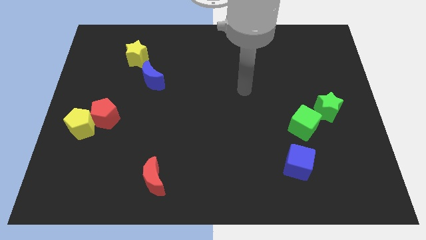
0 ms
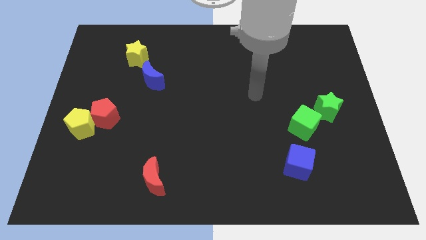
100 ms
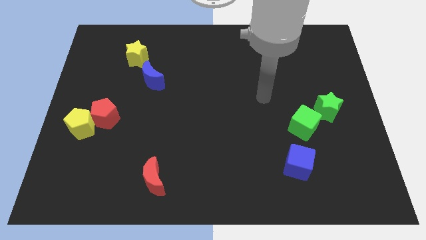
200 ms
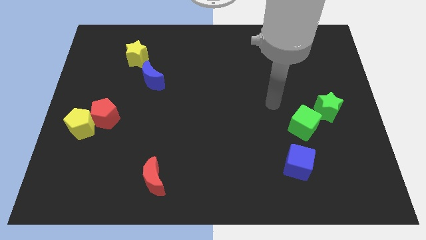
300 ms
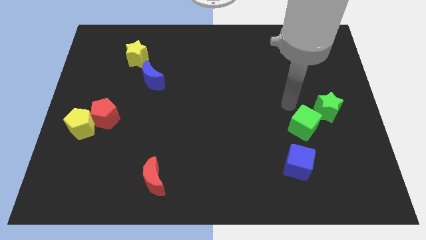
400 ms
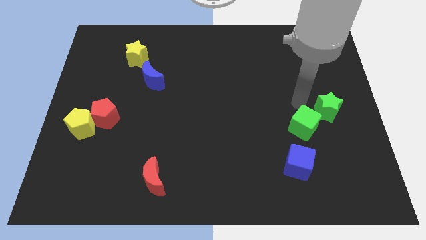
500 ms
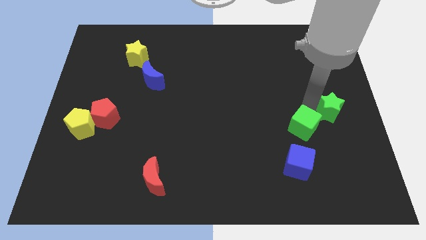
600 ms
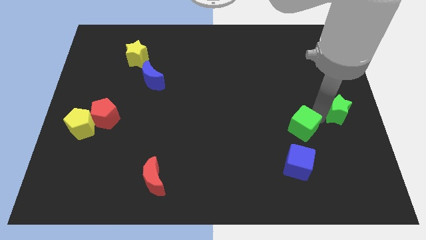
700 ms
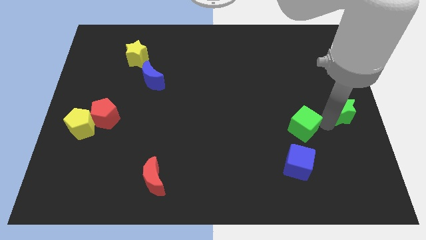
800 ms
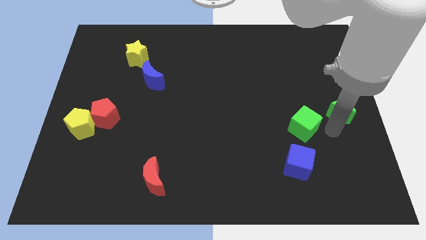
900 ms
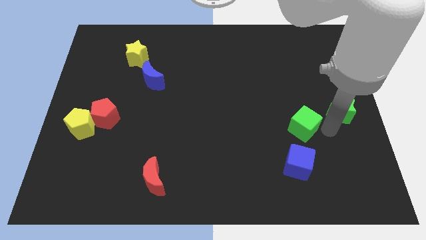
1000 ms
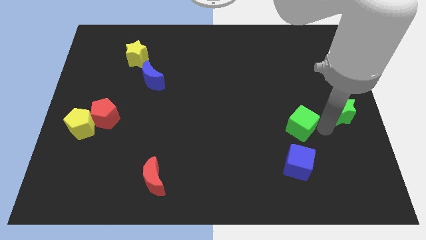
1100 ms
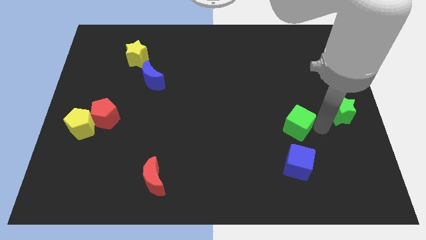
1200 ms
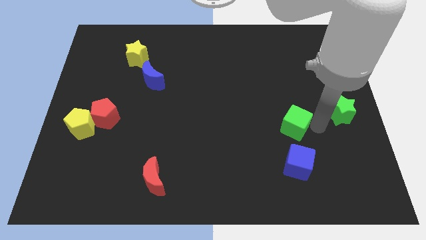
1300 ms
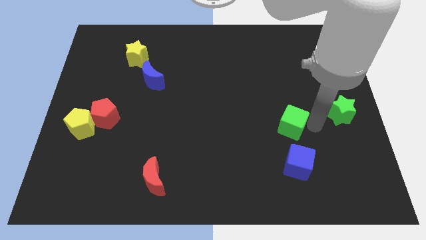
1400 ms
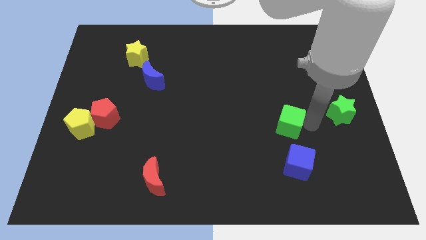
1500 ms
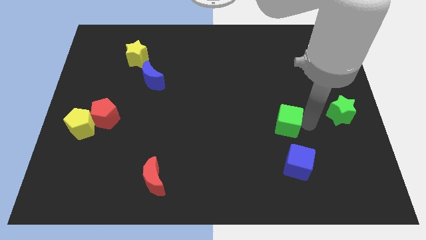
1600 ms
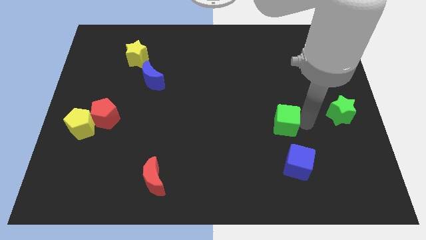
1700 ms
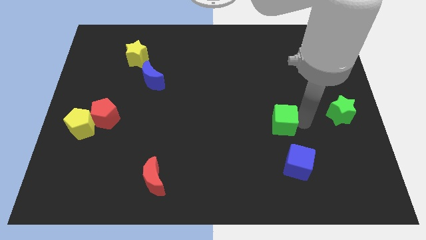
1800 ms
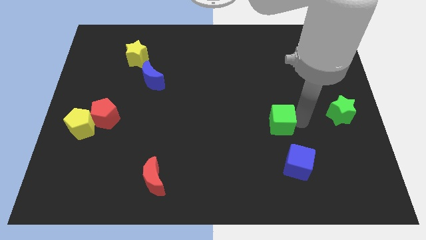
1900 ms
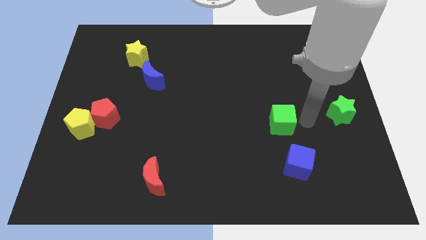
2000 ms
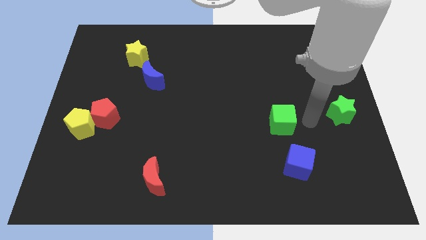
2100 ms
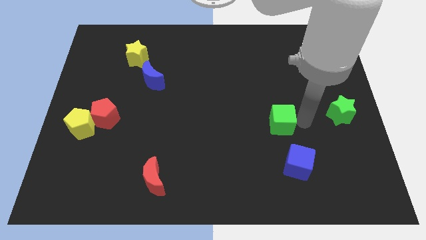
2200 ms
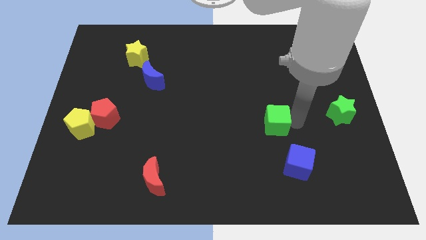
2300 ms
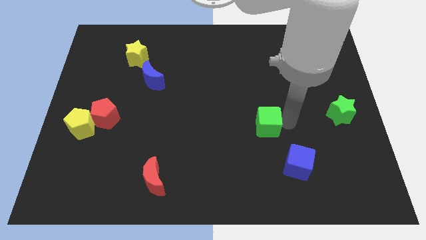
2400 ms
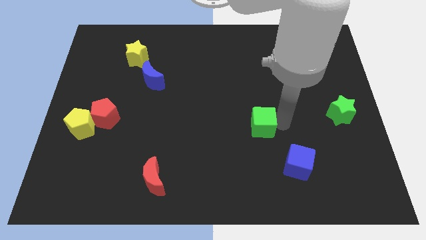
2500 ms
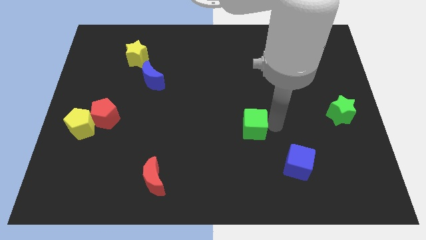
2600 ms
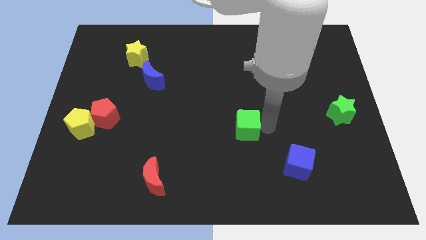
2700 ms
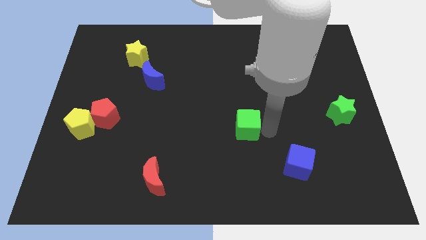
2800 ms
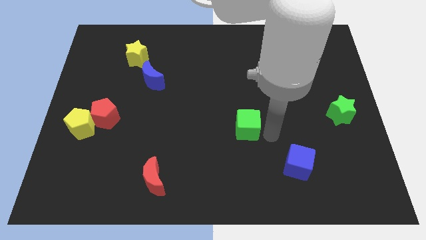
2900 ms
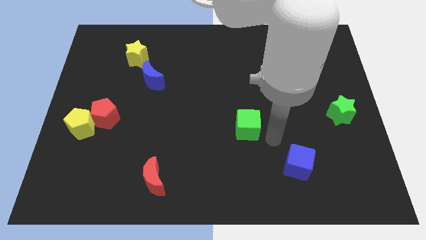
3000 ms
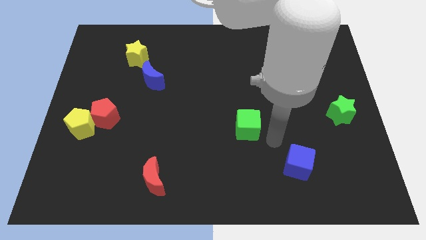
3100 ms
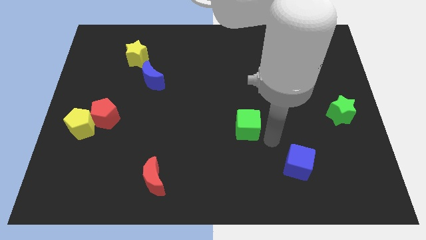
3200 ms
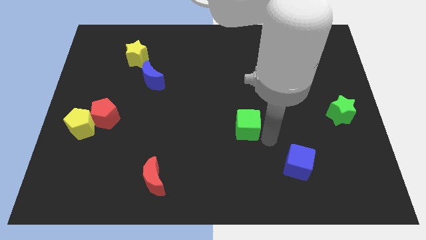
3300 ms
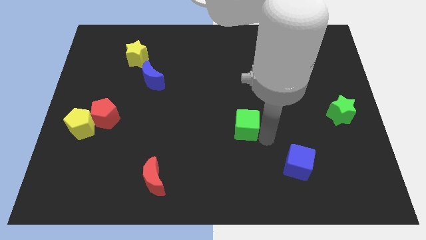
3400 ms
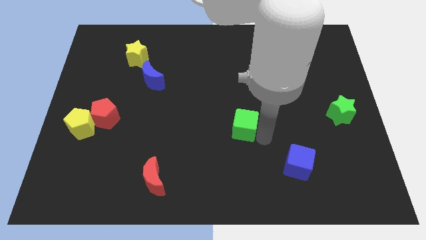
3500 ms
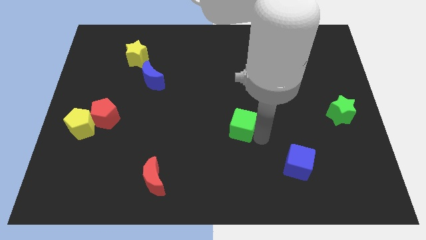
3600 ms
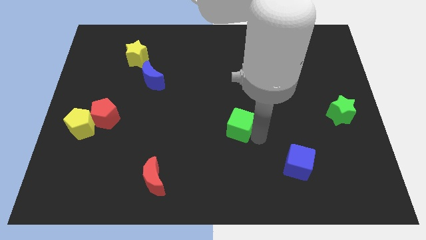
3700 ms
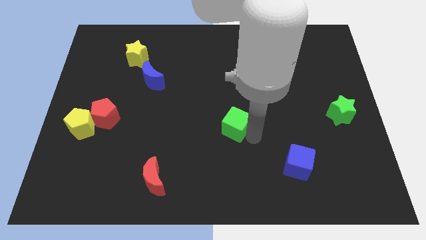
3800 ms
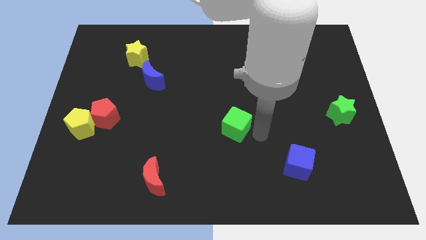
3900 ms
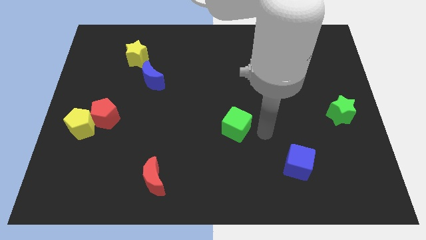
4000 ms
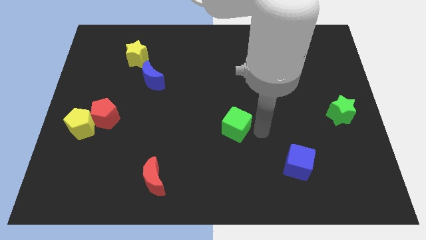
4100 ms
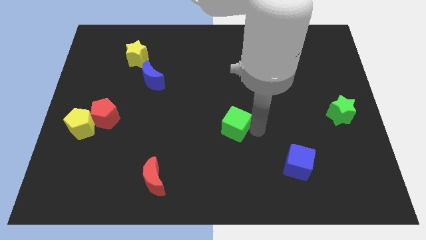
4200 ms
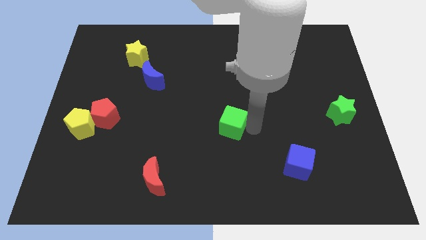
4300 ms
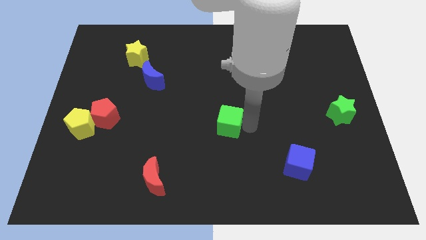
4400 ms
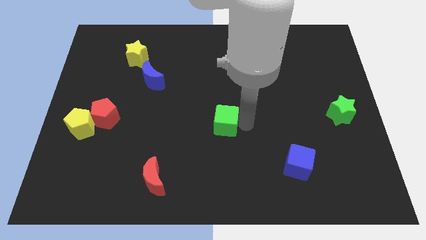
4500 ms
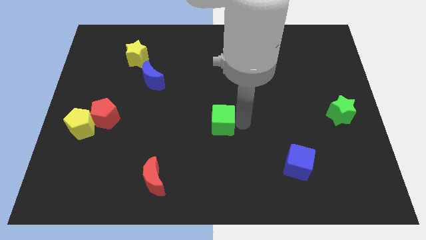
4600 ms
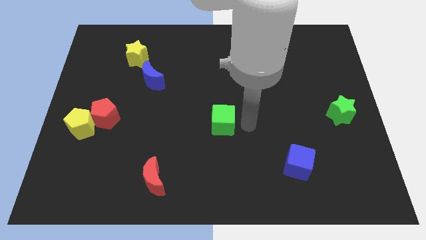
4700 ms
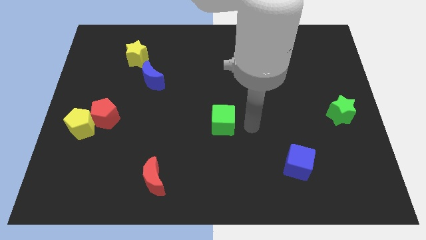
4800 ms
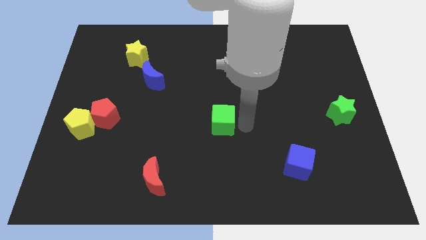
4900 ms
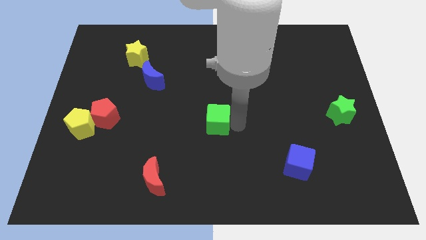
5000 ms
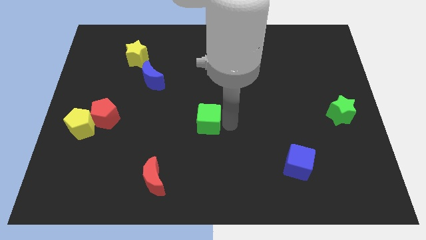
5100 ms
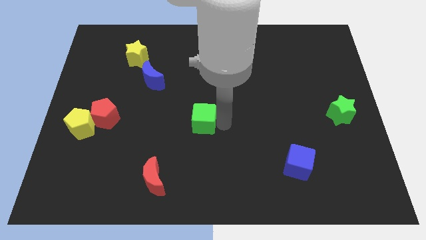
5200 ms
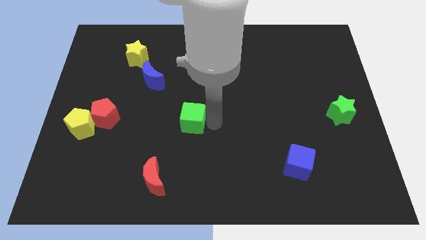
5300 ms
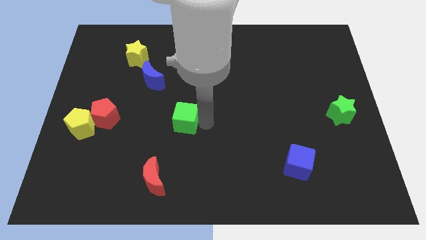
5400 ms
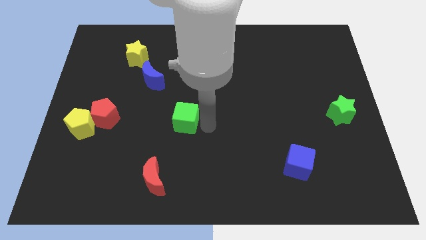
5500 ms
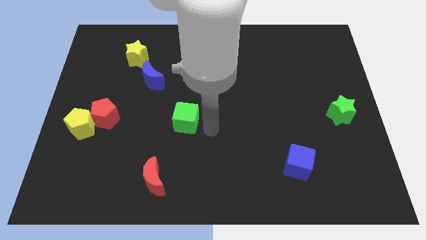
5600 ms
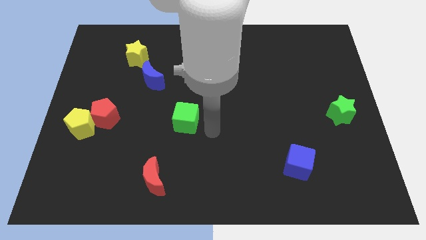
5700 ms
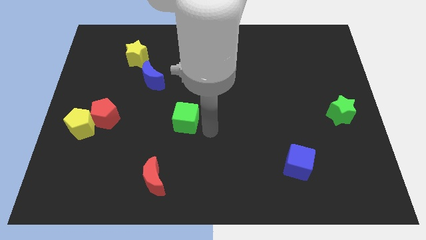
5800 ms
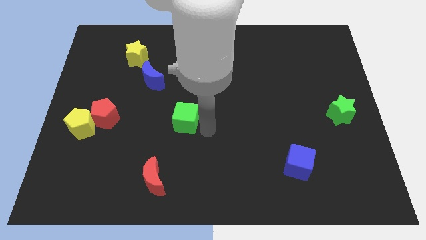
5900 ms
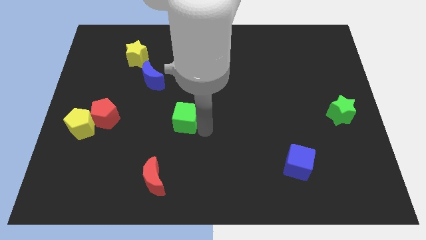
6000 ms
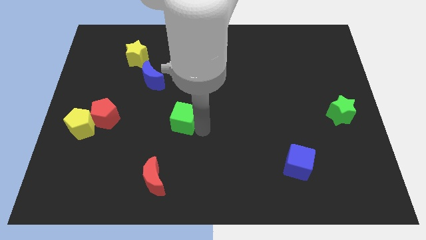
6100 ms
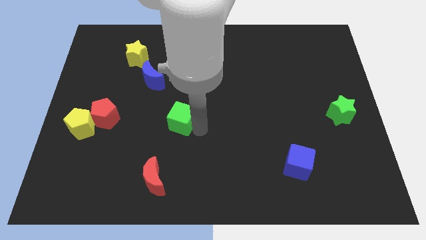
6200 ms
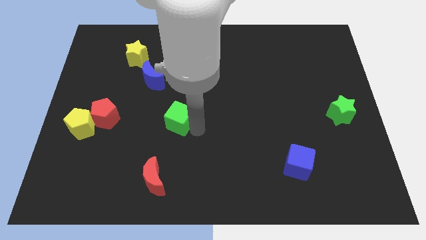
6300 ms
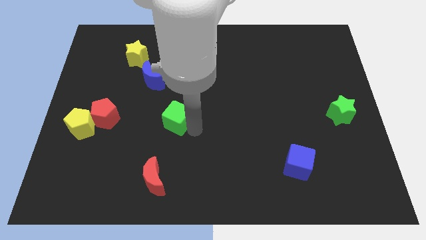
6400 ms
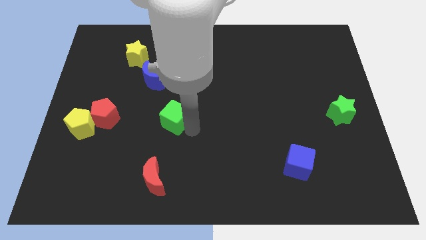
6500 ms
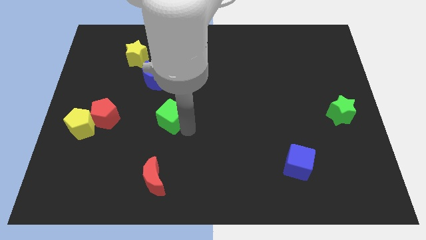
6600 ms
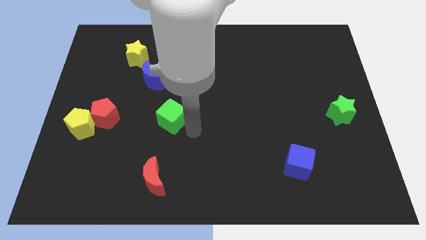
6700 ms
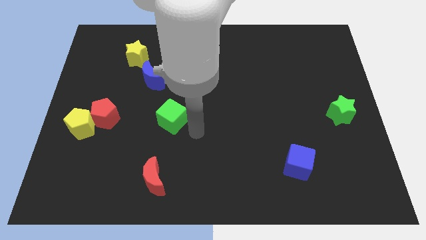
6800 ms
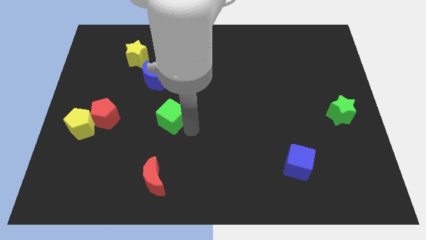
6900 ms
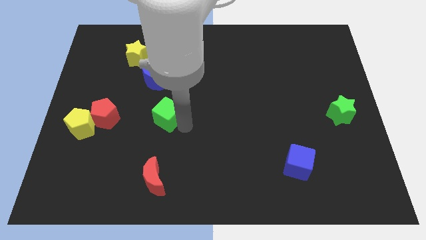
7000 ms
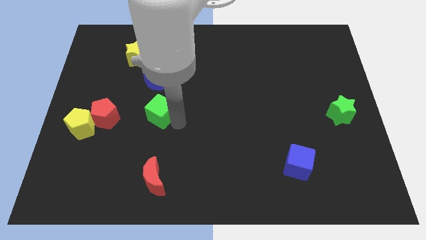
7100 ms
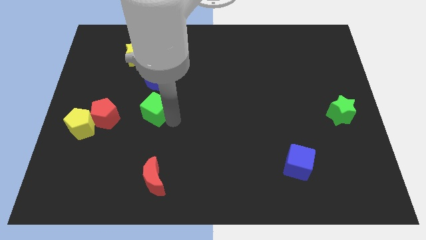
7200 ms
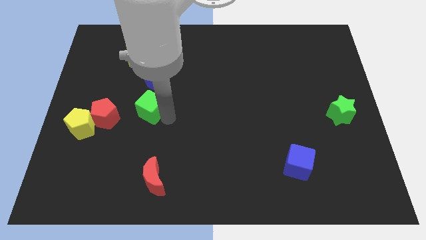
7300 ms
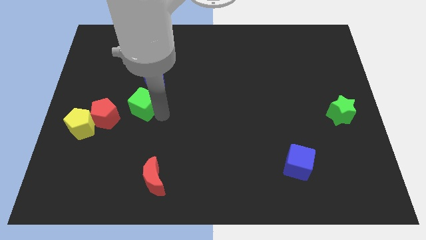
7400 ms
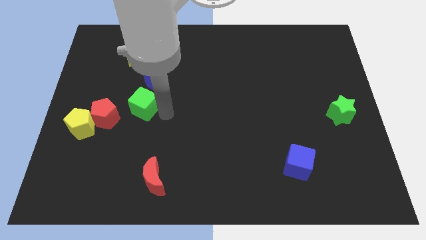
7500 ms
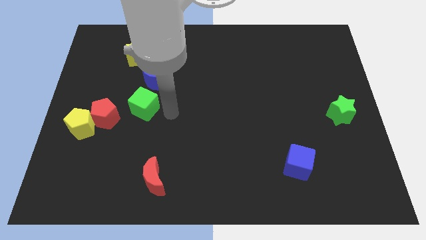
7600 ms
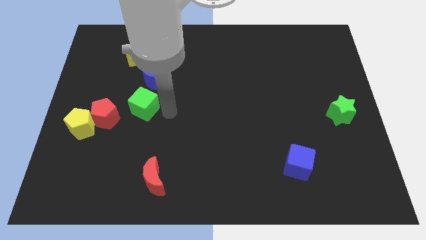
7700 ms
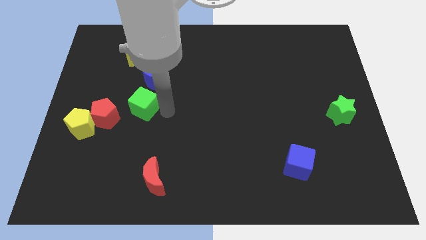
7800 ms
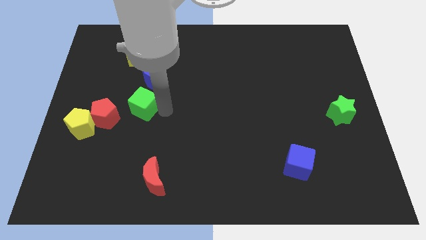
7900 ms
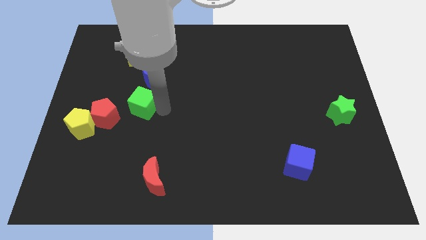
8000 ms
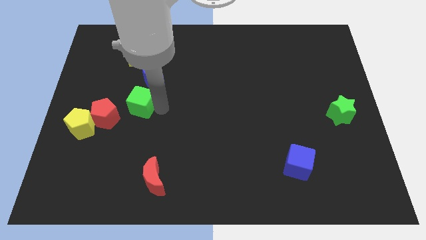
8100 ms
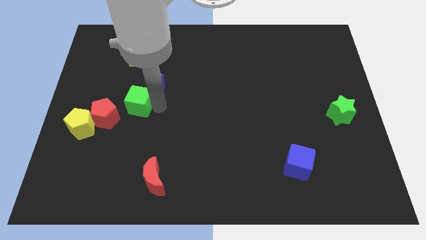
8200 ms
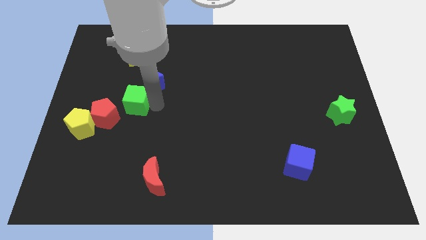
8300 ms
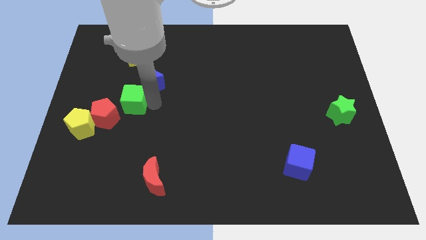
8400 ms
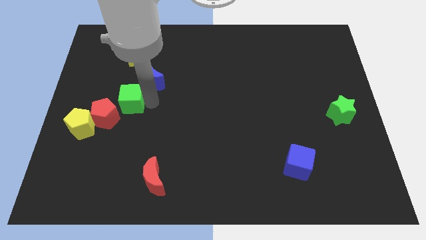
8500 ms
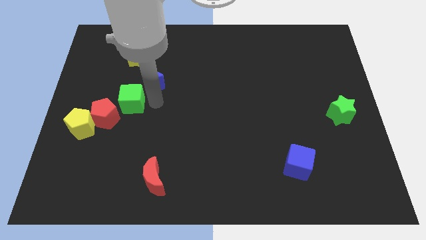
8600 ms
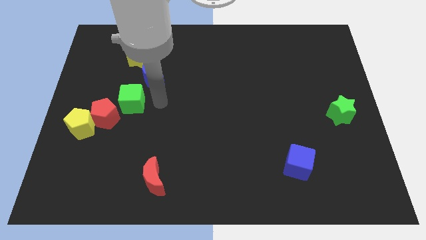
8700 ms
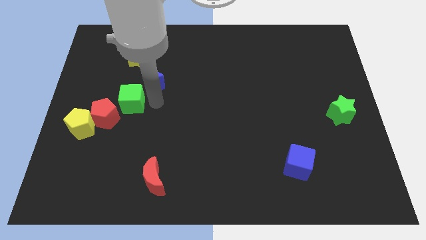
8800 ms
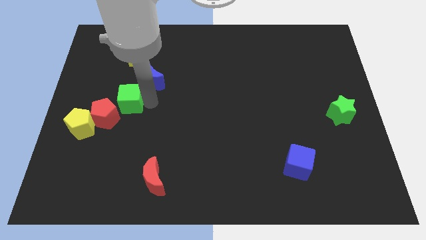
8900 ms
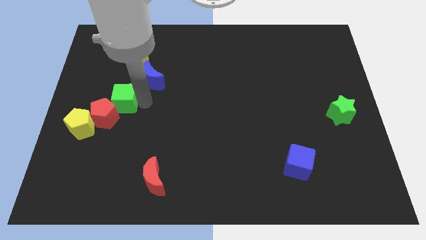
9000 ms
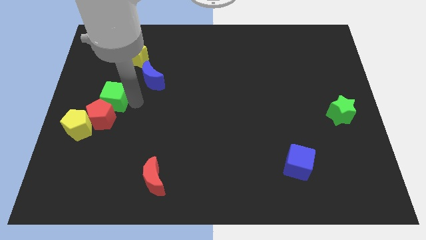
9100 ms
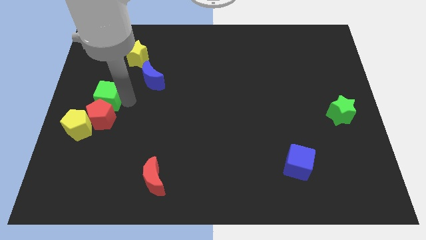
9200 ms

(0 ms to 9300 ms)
move the green cube to the left side of the board
